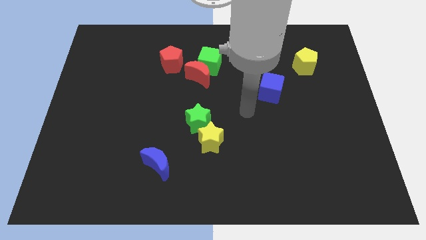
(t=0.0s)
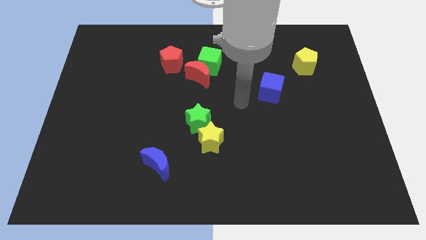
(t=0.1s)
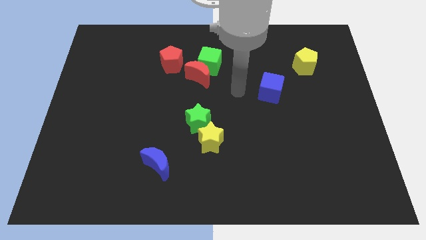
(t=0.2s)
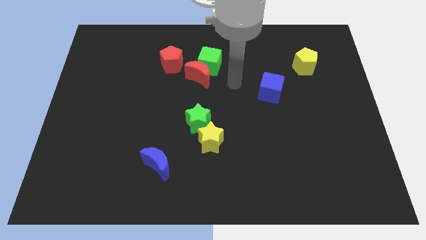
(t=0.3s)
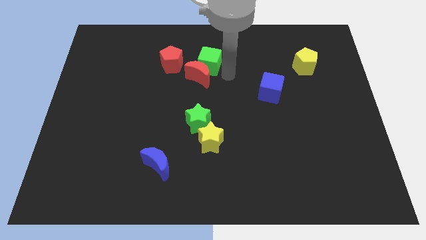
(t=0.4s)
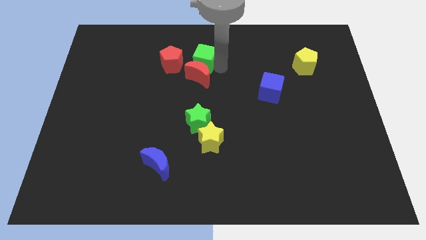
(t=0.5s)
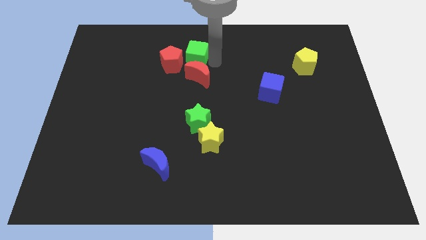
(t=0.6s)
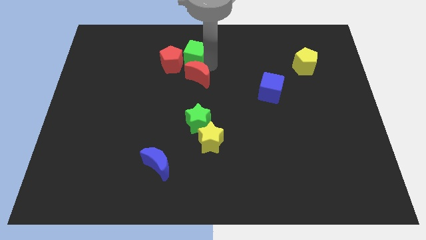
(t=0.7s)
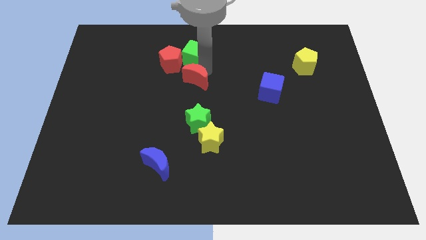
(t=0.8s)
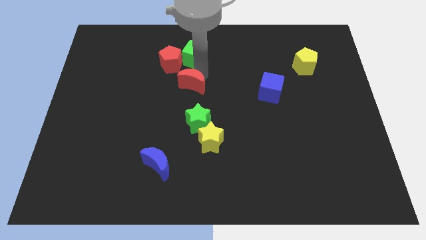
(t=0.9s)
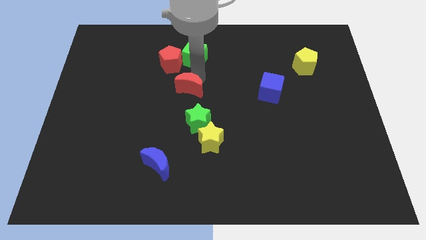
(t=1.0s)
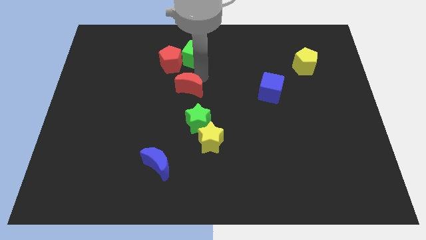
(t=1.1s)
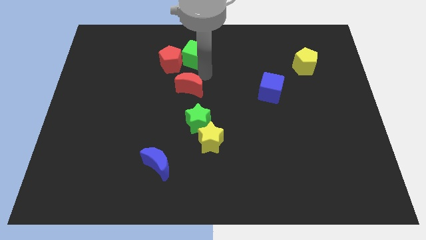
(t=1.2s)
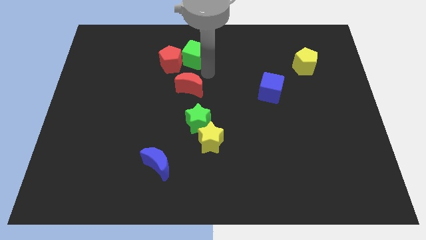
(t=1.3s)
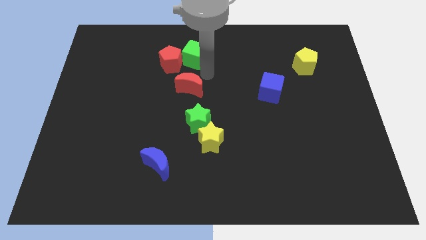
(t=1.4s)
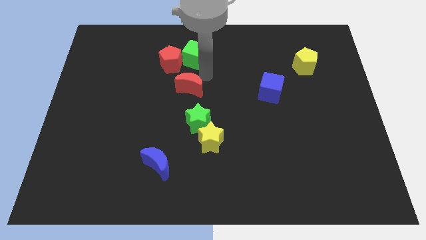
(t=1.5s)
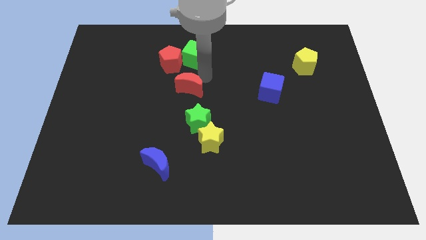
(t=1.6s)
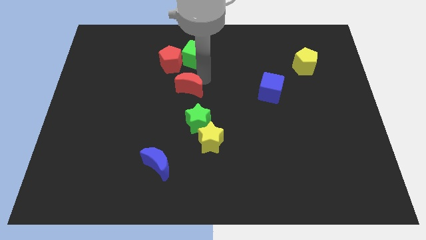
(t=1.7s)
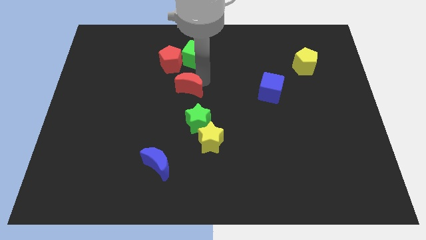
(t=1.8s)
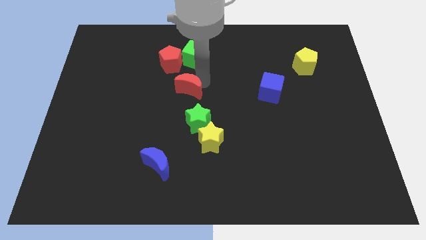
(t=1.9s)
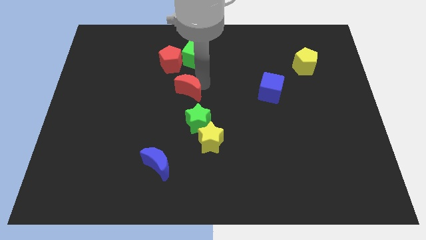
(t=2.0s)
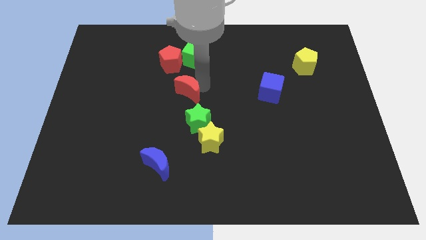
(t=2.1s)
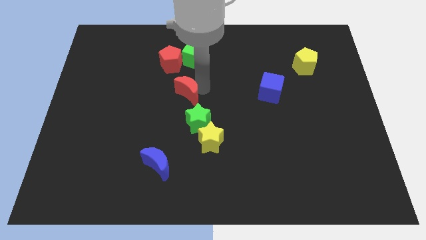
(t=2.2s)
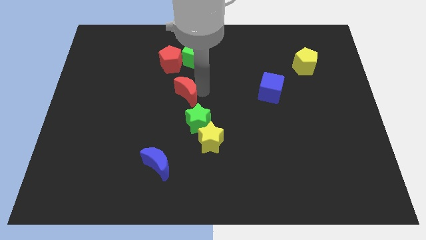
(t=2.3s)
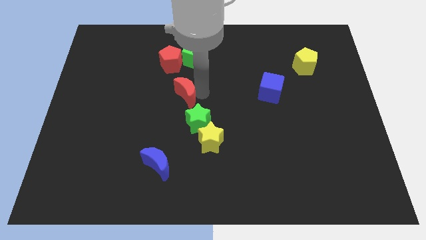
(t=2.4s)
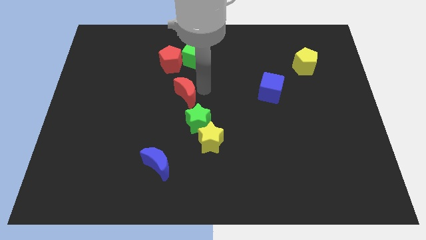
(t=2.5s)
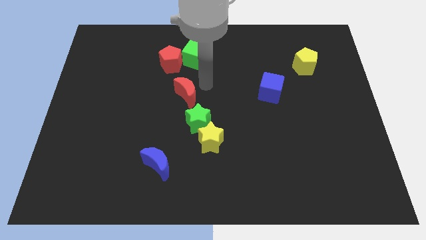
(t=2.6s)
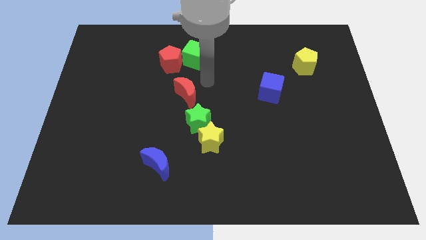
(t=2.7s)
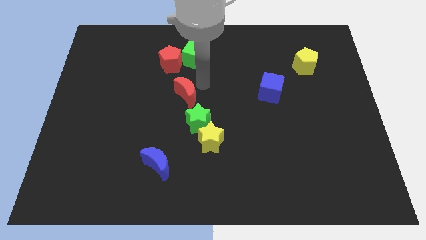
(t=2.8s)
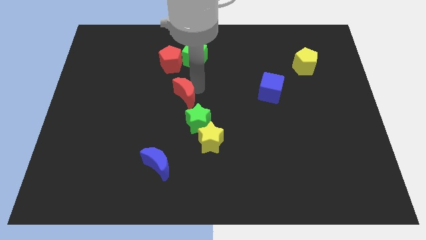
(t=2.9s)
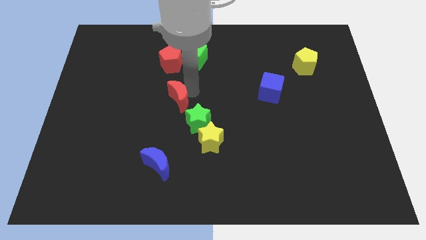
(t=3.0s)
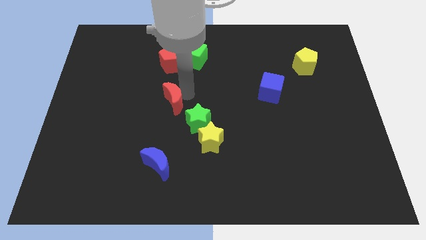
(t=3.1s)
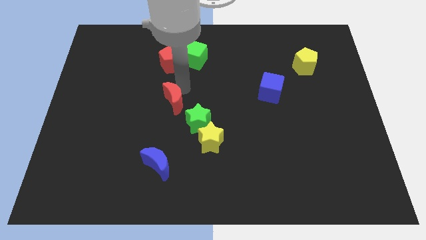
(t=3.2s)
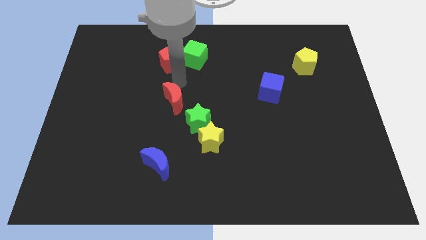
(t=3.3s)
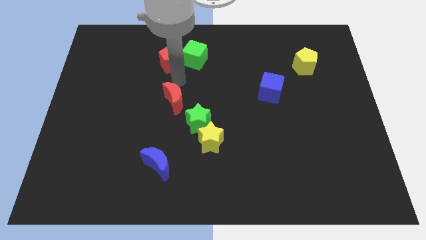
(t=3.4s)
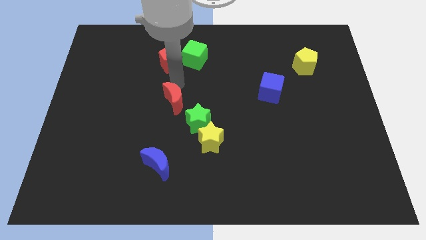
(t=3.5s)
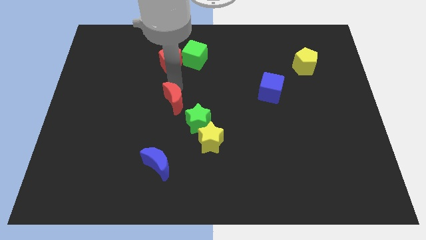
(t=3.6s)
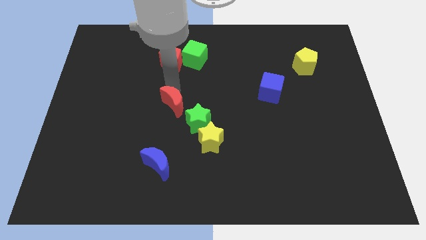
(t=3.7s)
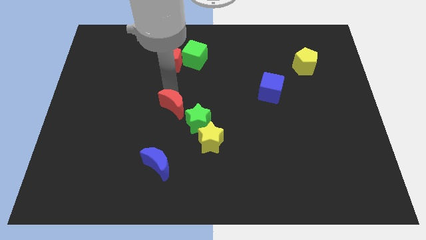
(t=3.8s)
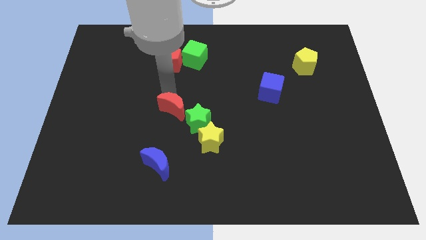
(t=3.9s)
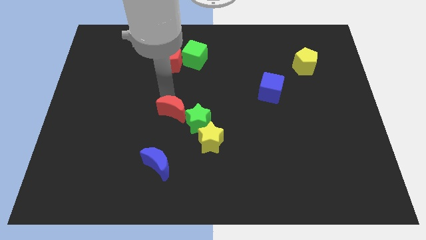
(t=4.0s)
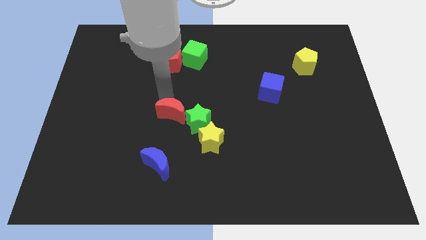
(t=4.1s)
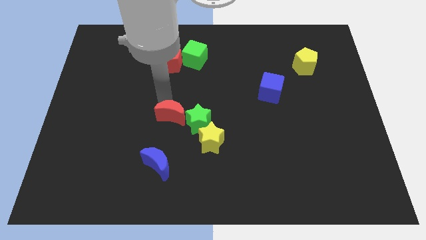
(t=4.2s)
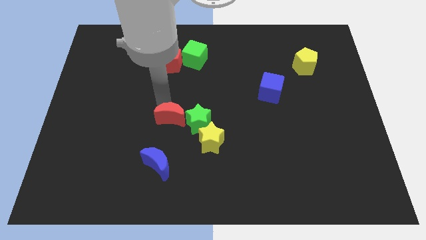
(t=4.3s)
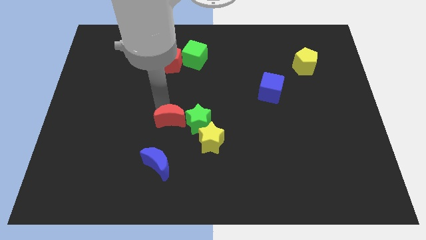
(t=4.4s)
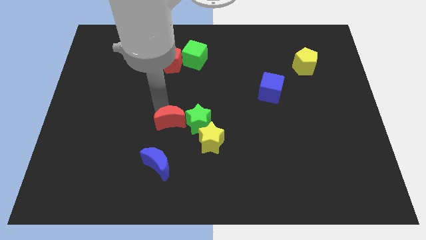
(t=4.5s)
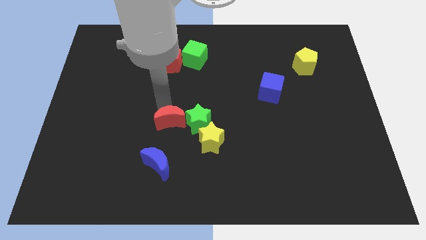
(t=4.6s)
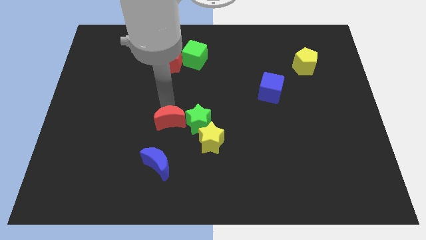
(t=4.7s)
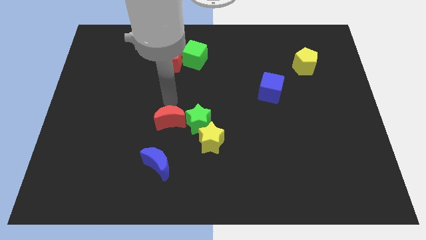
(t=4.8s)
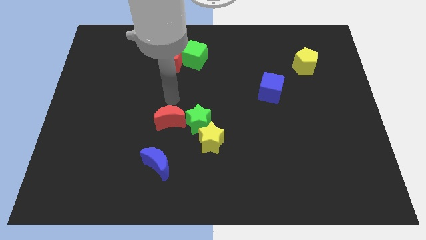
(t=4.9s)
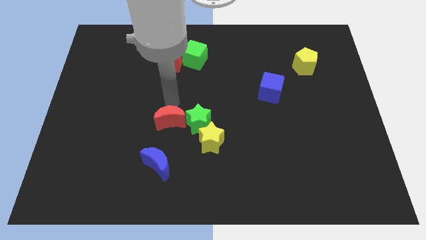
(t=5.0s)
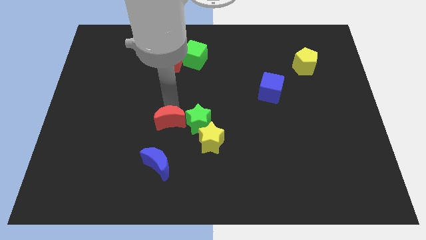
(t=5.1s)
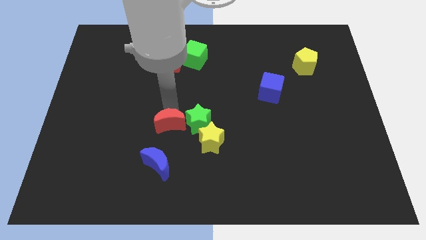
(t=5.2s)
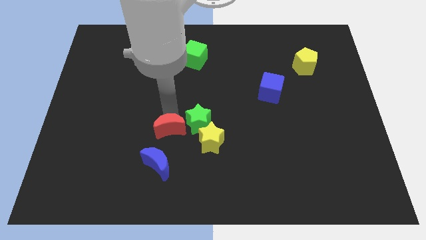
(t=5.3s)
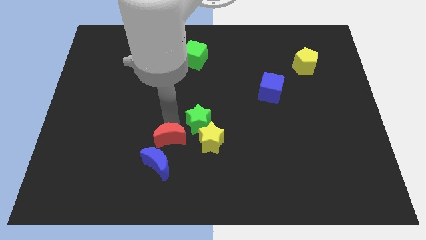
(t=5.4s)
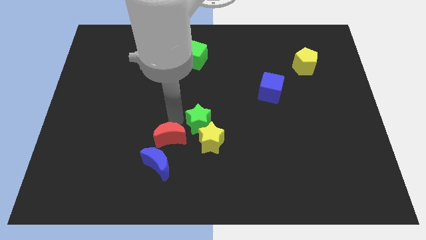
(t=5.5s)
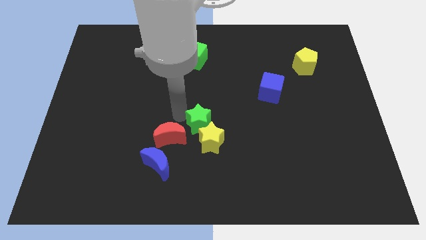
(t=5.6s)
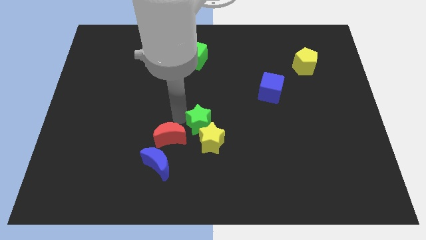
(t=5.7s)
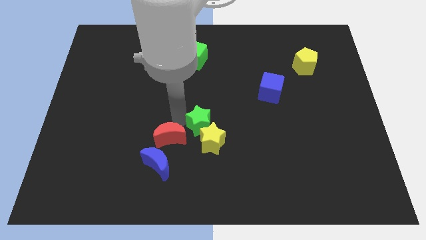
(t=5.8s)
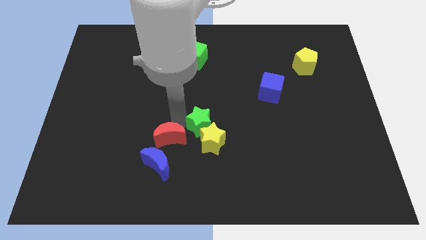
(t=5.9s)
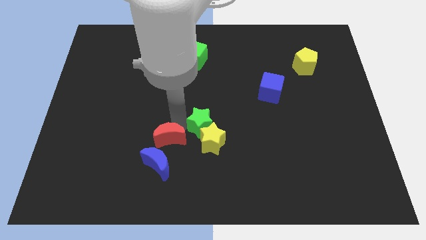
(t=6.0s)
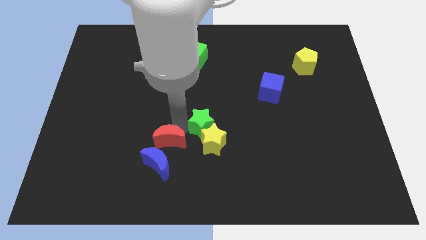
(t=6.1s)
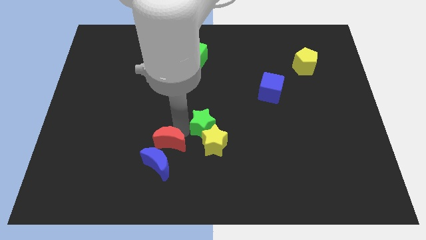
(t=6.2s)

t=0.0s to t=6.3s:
push the red moon close to the blue moon
